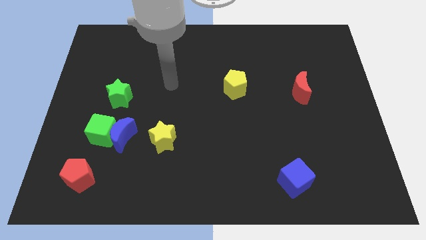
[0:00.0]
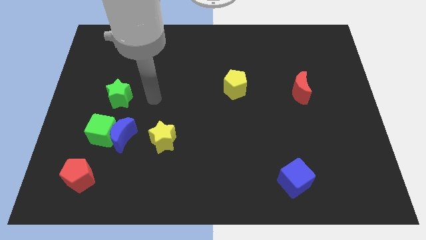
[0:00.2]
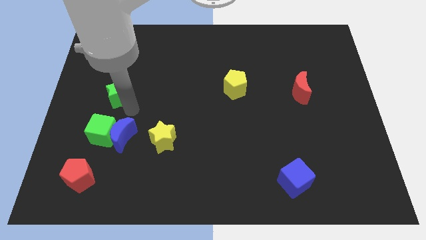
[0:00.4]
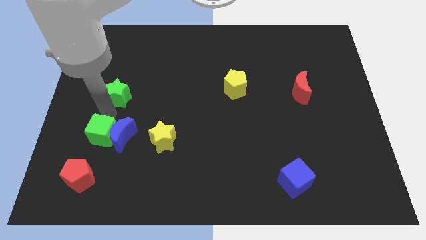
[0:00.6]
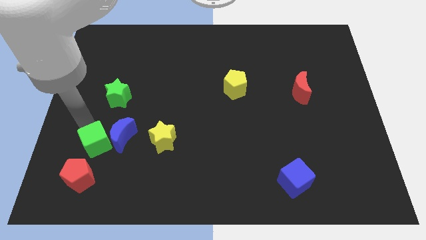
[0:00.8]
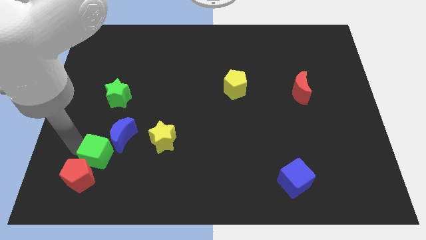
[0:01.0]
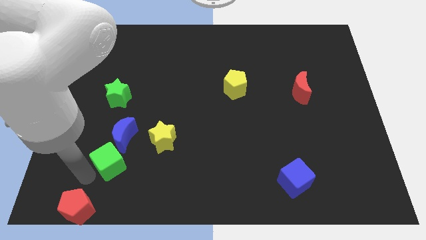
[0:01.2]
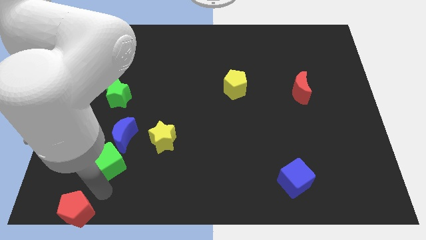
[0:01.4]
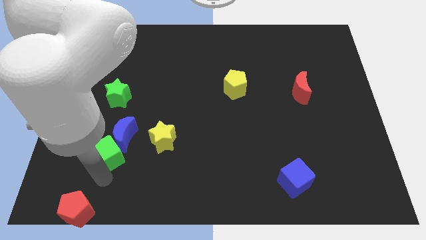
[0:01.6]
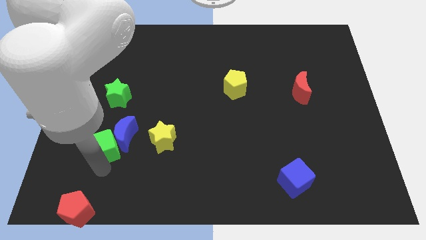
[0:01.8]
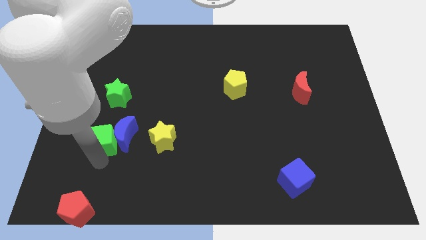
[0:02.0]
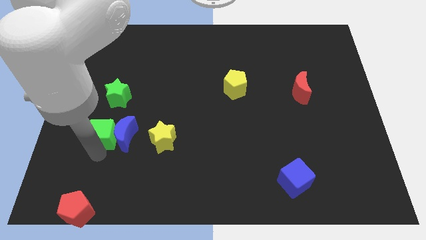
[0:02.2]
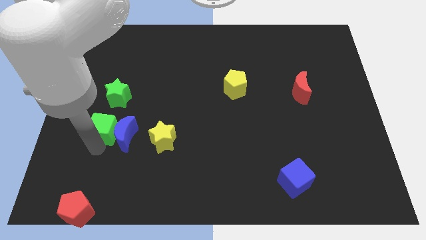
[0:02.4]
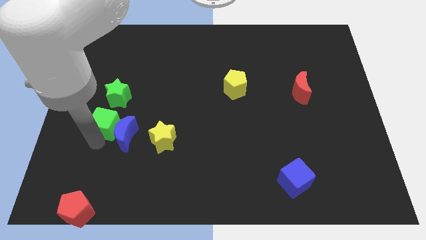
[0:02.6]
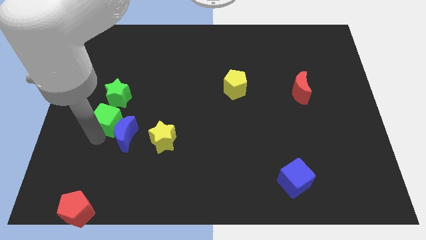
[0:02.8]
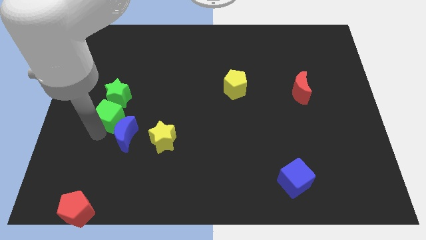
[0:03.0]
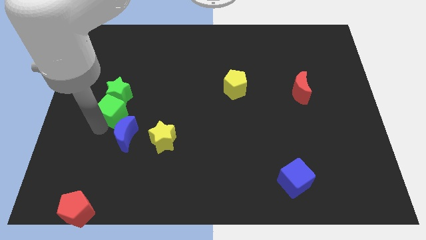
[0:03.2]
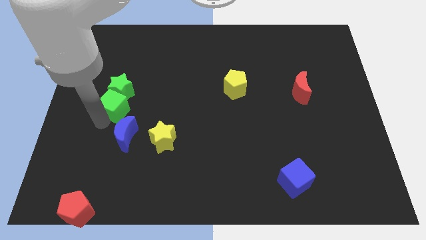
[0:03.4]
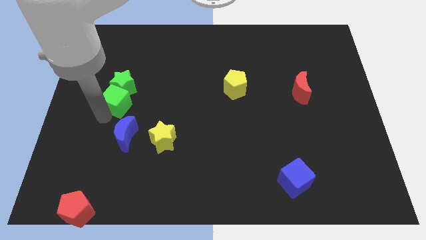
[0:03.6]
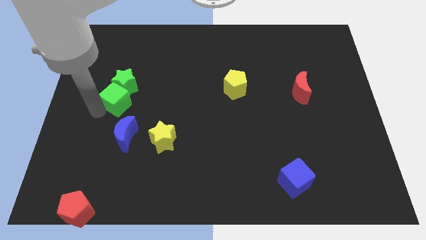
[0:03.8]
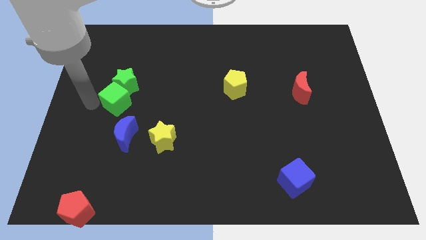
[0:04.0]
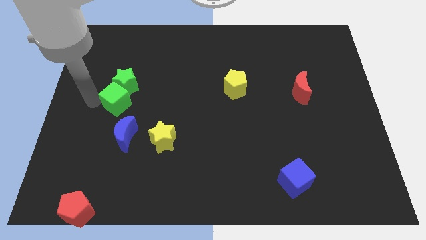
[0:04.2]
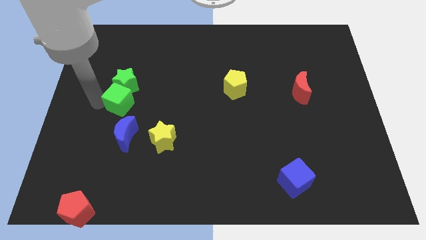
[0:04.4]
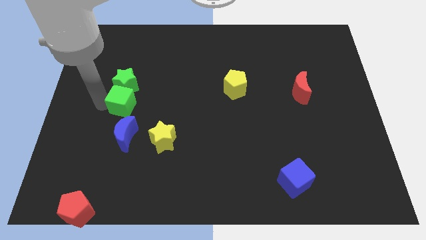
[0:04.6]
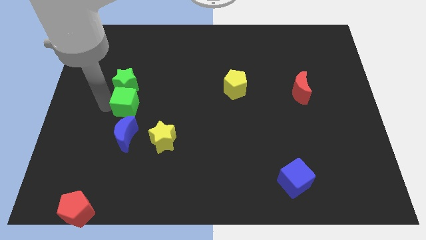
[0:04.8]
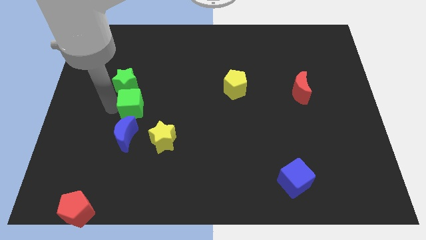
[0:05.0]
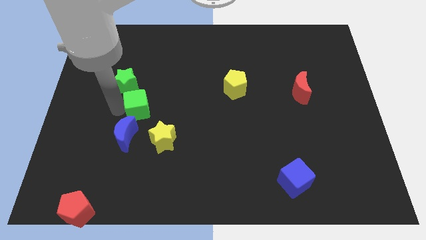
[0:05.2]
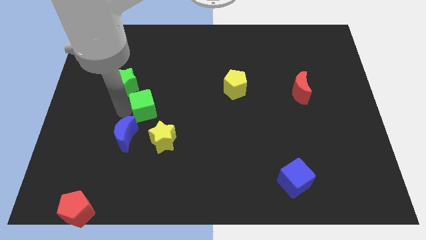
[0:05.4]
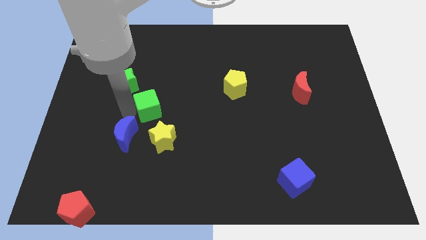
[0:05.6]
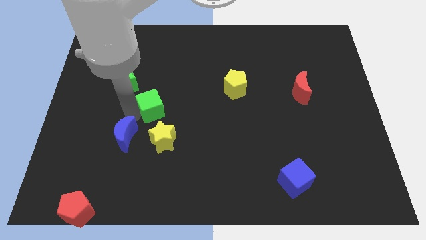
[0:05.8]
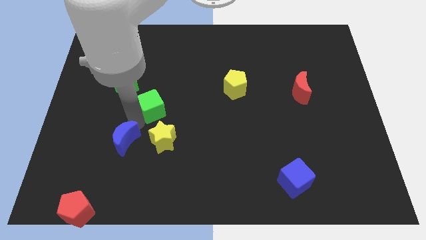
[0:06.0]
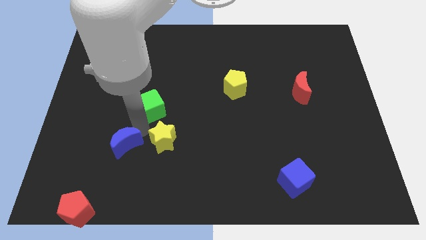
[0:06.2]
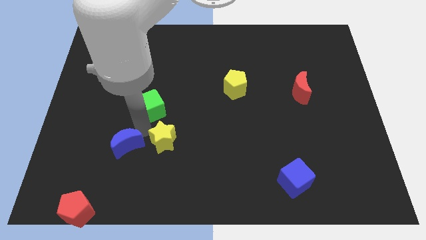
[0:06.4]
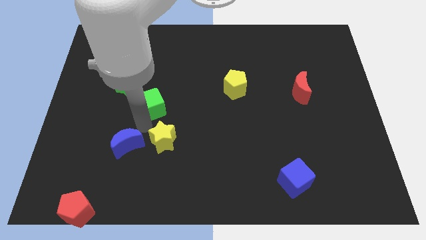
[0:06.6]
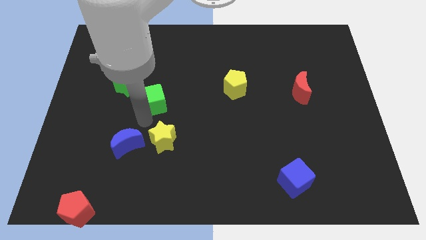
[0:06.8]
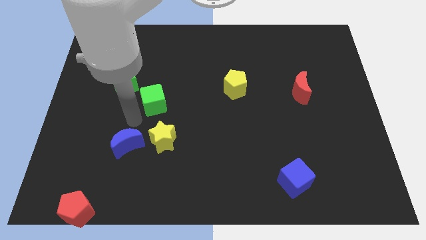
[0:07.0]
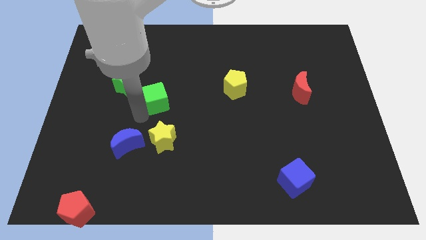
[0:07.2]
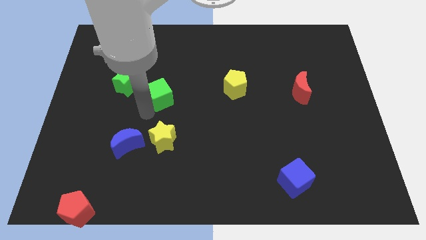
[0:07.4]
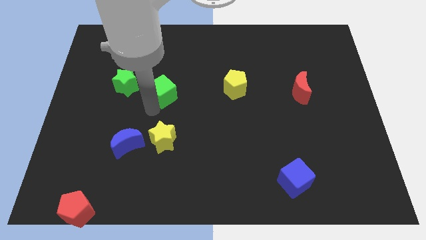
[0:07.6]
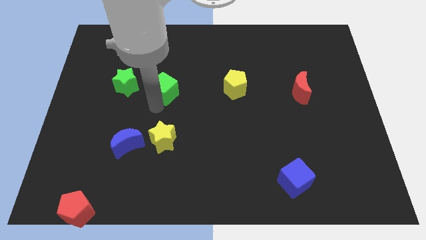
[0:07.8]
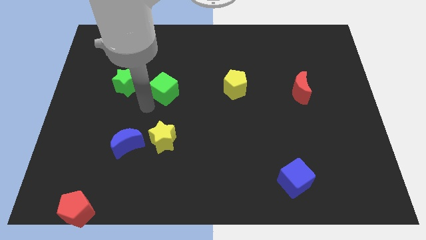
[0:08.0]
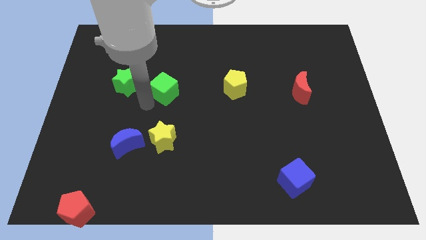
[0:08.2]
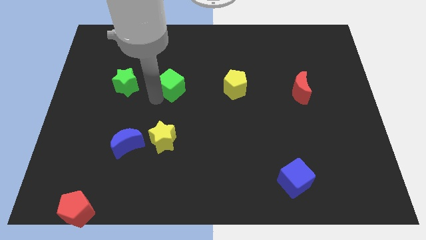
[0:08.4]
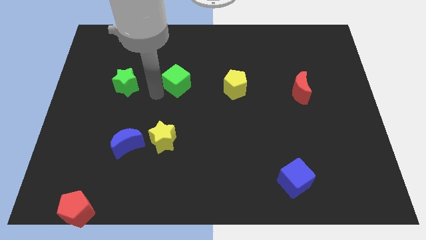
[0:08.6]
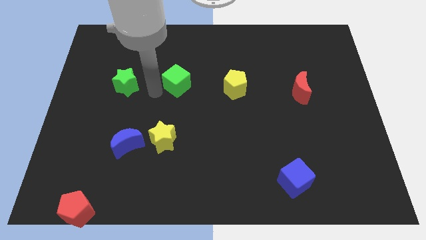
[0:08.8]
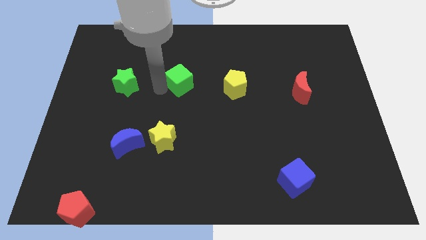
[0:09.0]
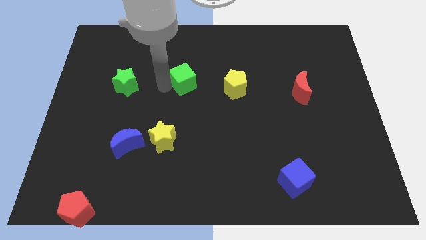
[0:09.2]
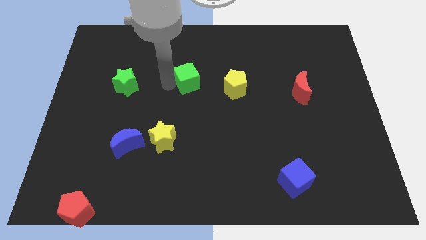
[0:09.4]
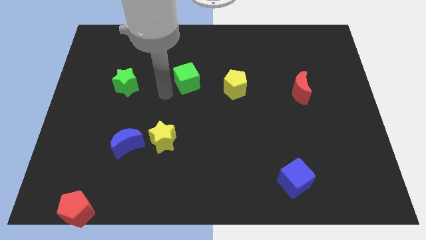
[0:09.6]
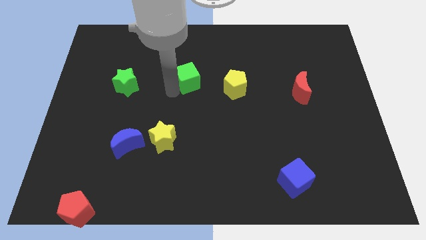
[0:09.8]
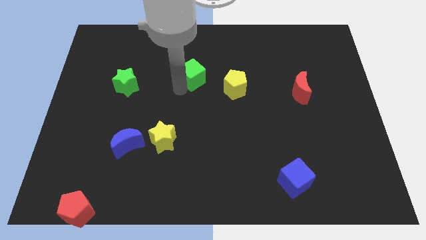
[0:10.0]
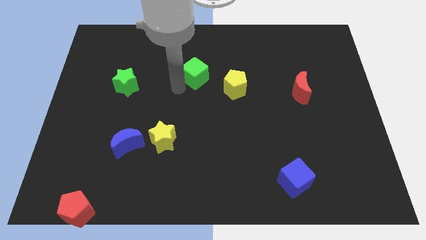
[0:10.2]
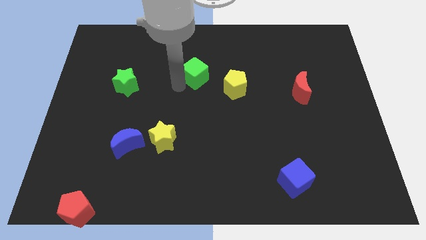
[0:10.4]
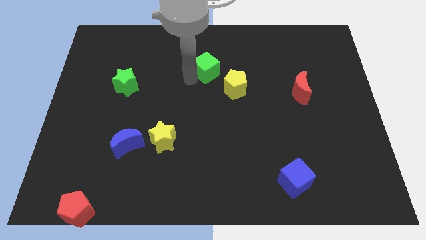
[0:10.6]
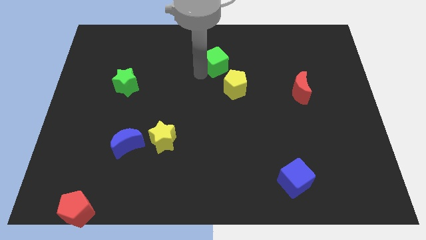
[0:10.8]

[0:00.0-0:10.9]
move the green cube to the top side of the yellow pentagon

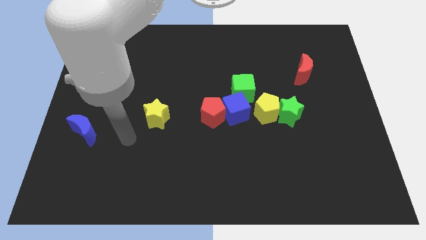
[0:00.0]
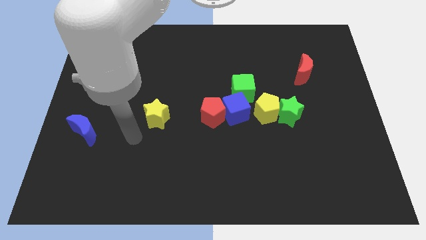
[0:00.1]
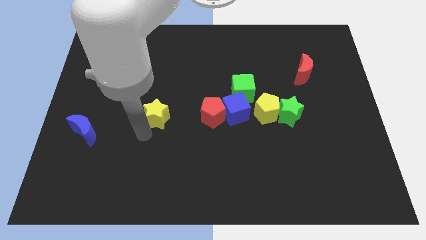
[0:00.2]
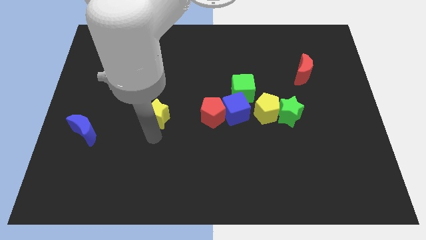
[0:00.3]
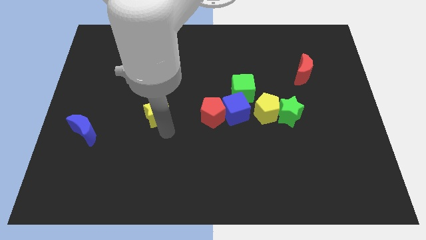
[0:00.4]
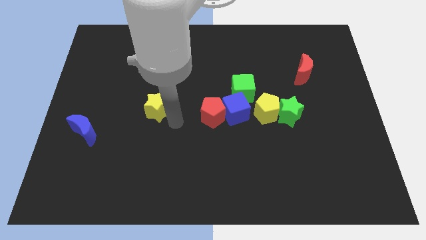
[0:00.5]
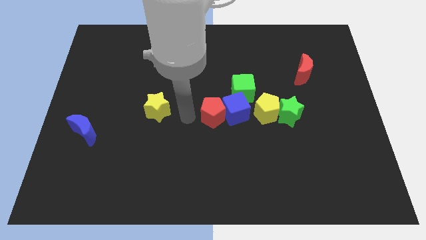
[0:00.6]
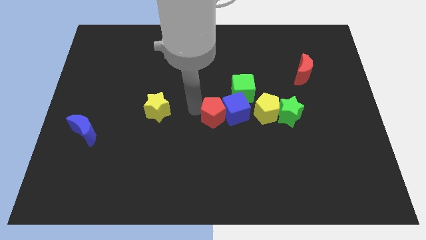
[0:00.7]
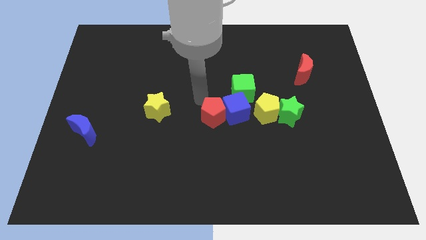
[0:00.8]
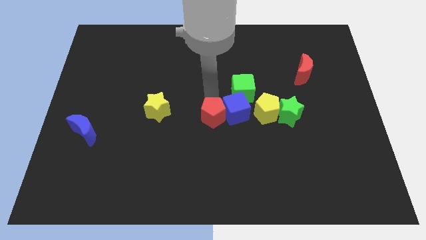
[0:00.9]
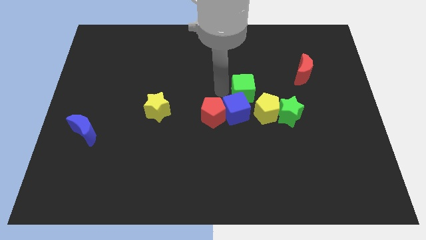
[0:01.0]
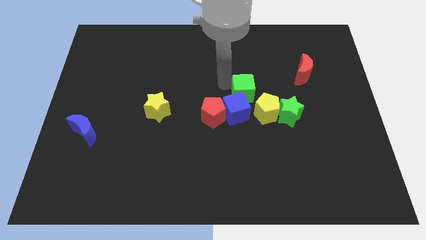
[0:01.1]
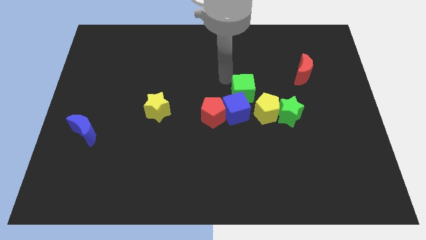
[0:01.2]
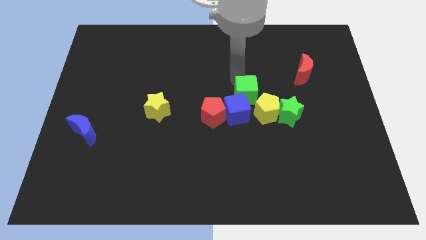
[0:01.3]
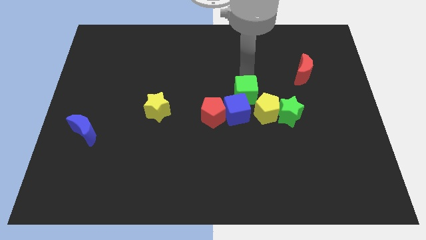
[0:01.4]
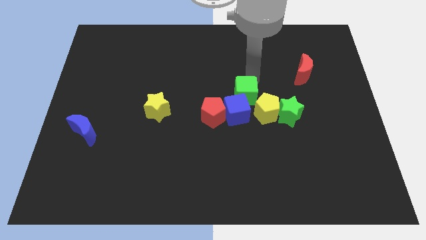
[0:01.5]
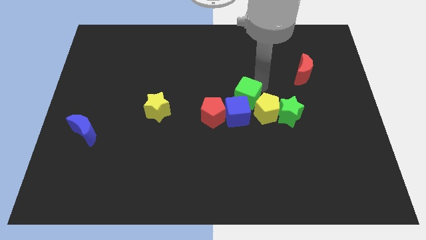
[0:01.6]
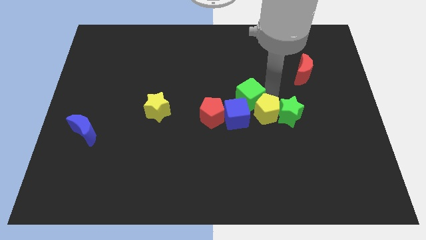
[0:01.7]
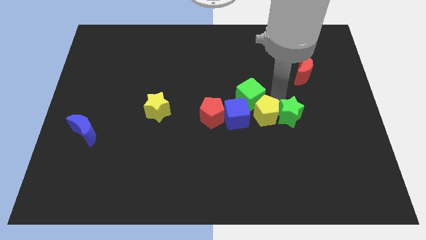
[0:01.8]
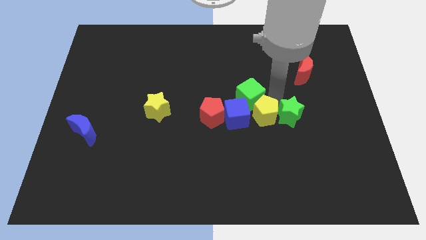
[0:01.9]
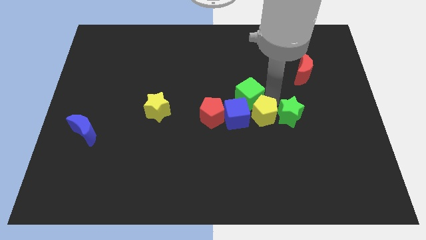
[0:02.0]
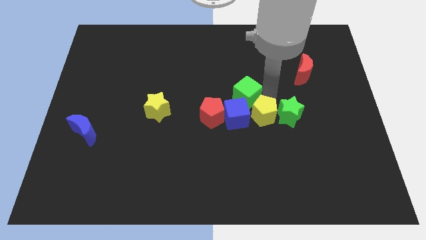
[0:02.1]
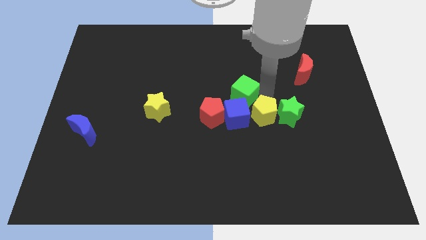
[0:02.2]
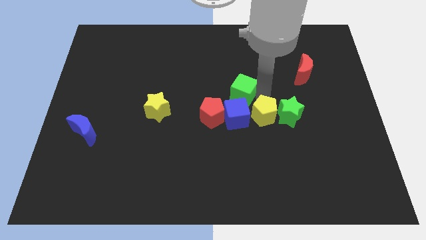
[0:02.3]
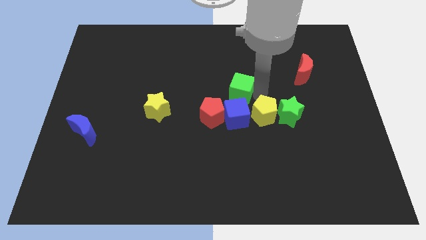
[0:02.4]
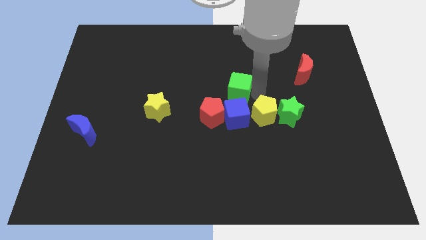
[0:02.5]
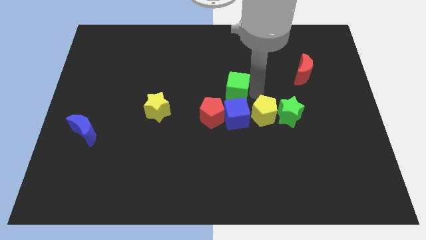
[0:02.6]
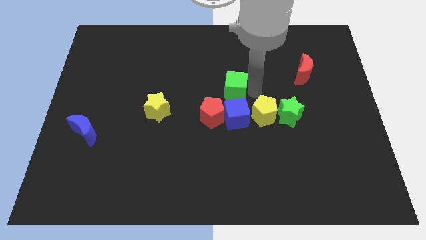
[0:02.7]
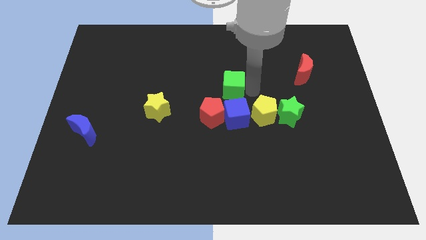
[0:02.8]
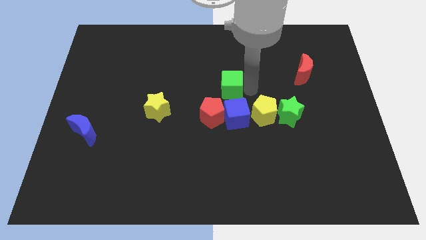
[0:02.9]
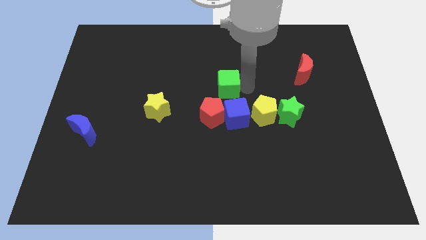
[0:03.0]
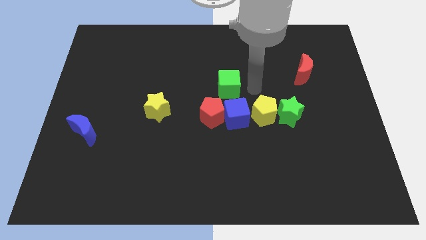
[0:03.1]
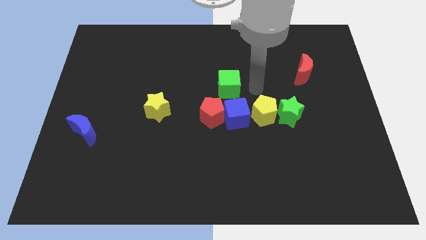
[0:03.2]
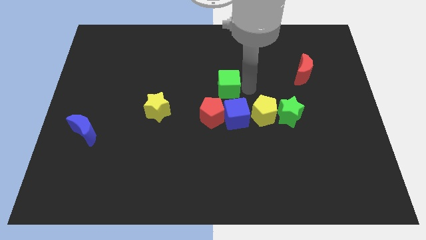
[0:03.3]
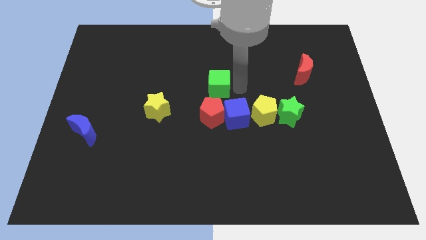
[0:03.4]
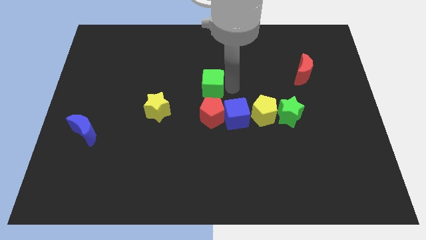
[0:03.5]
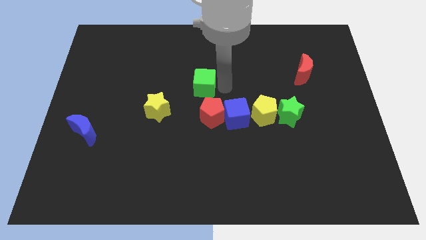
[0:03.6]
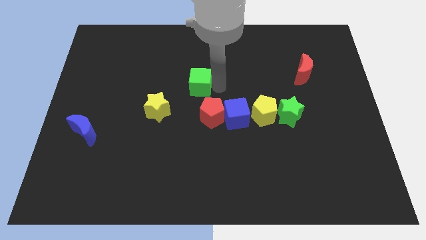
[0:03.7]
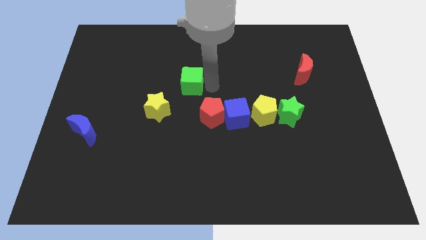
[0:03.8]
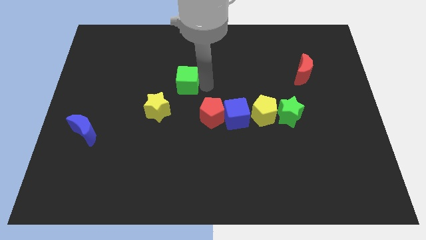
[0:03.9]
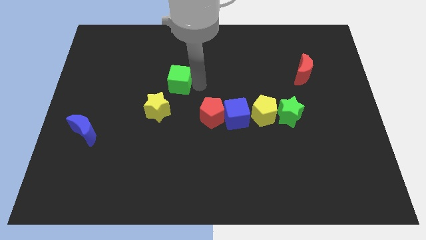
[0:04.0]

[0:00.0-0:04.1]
put the green cube to the top side of the yellow star
